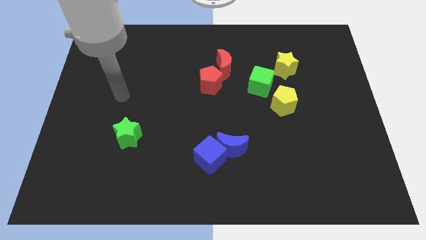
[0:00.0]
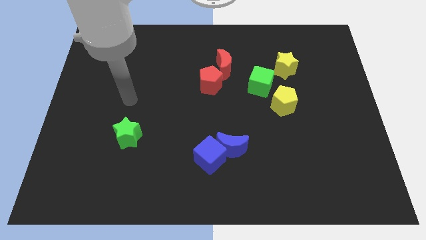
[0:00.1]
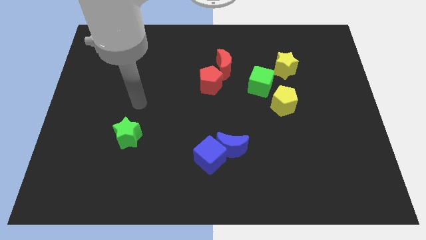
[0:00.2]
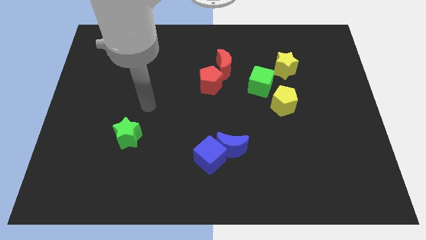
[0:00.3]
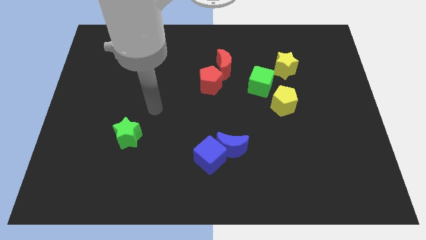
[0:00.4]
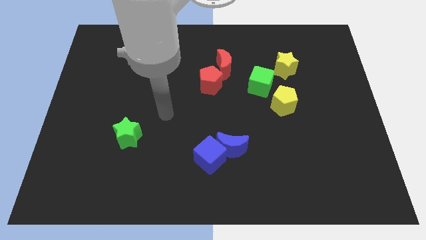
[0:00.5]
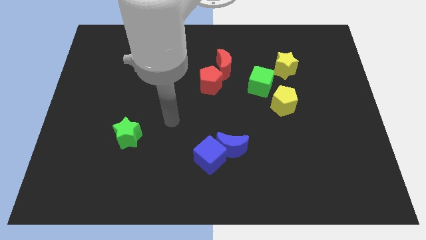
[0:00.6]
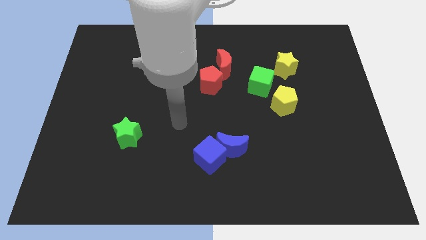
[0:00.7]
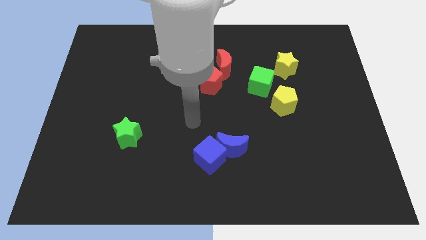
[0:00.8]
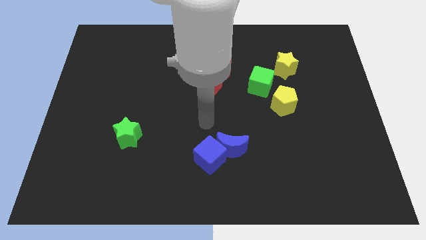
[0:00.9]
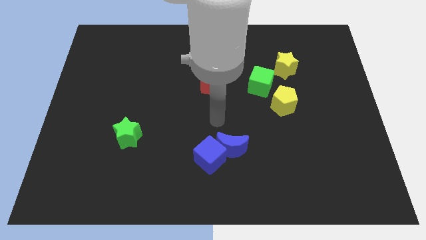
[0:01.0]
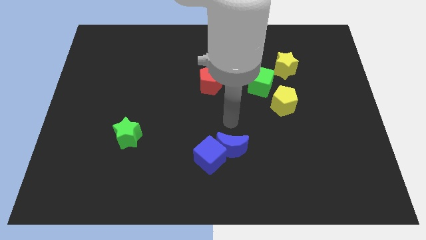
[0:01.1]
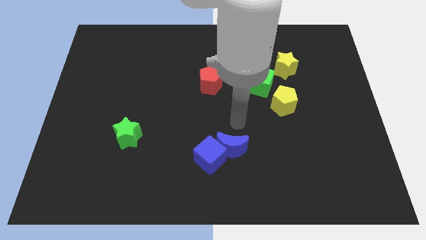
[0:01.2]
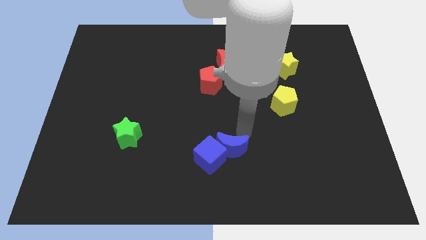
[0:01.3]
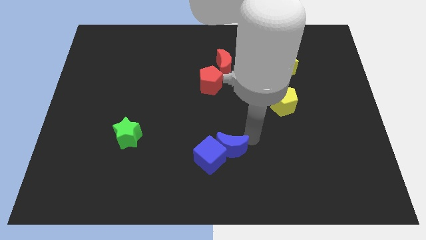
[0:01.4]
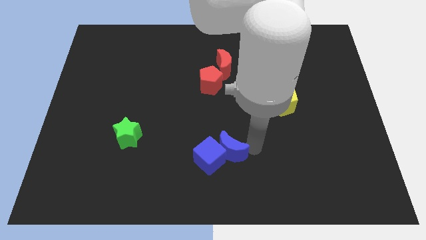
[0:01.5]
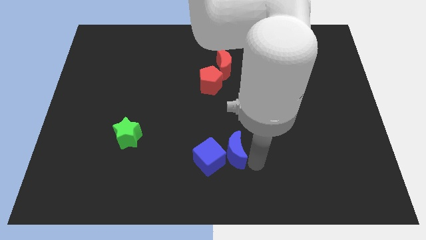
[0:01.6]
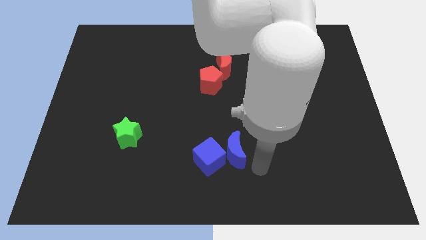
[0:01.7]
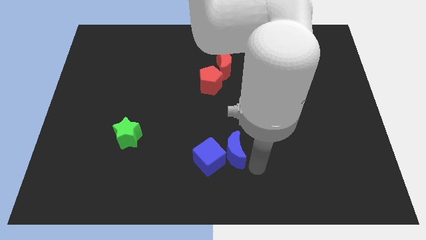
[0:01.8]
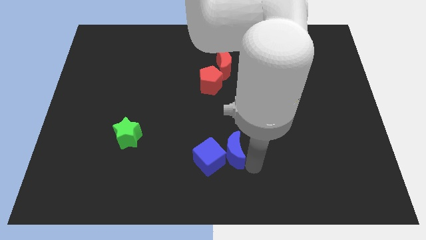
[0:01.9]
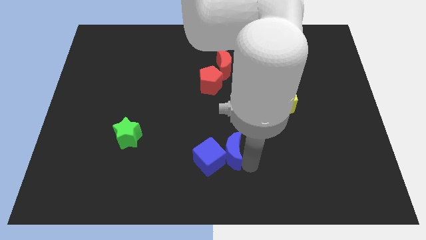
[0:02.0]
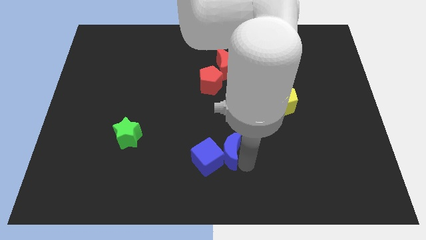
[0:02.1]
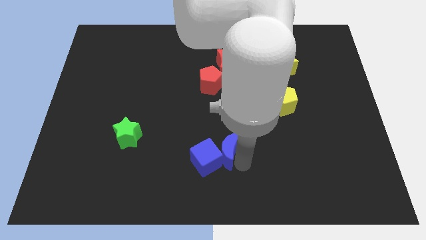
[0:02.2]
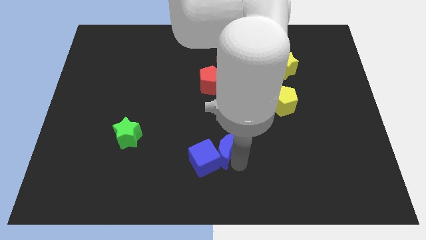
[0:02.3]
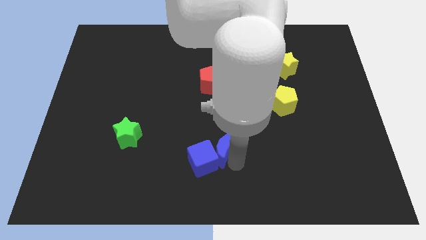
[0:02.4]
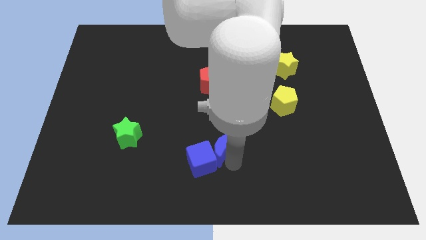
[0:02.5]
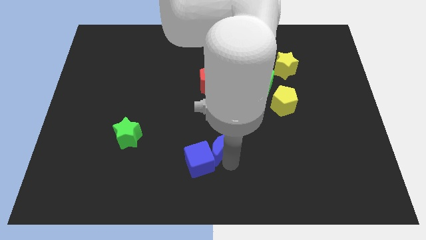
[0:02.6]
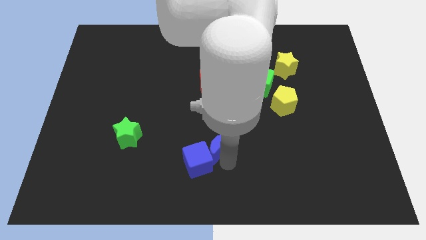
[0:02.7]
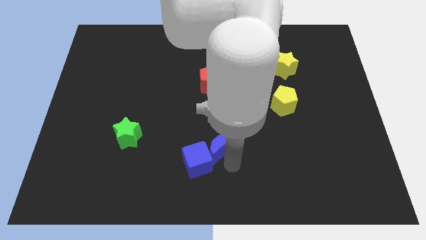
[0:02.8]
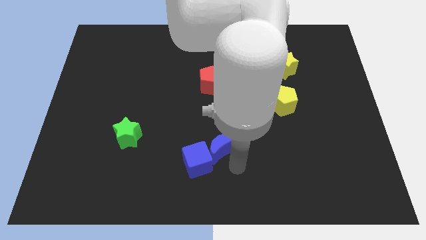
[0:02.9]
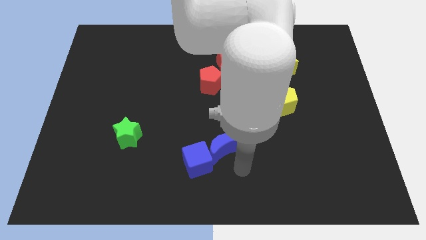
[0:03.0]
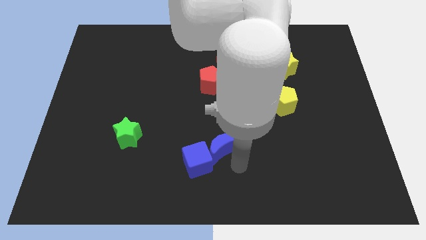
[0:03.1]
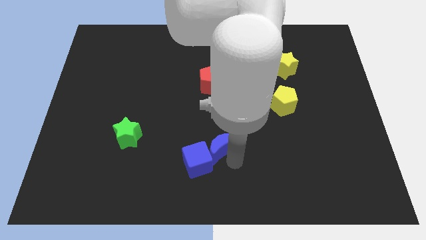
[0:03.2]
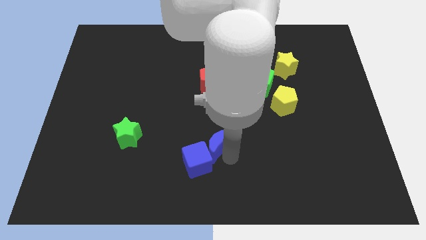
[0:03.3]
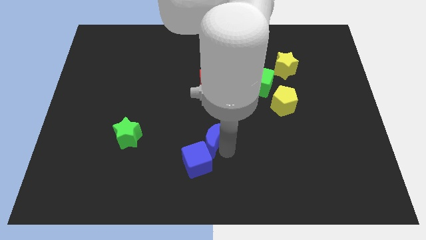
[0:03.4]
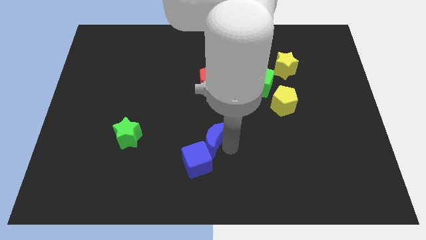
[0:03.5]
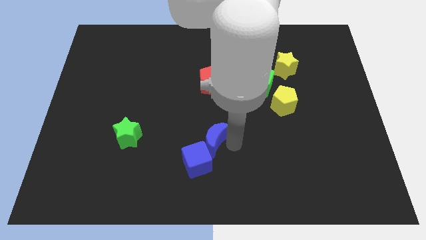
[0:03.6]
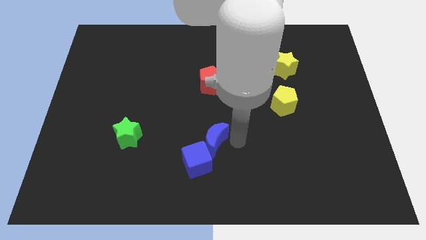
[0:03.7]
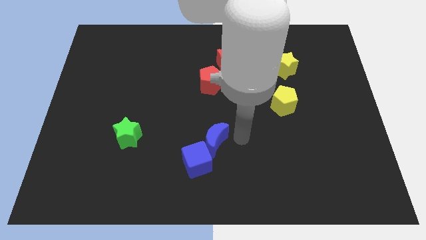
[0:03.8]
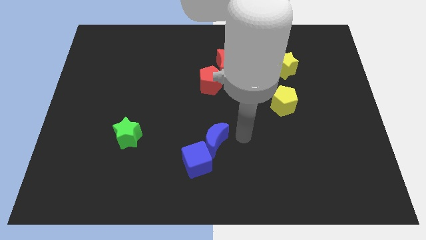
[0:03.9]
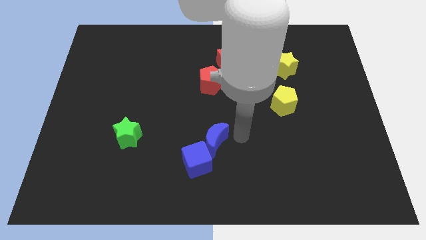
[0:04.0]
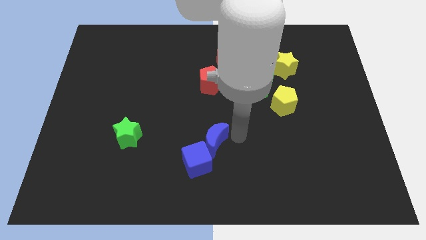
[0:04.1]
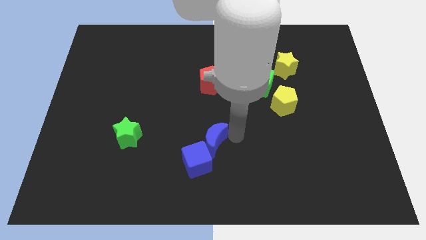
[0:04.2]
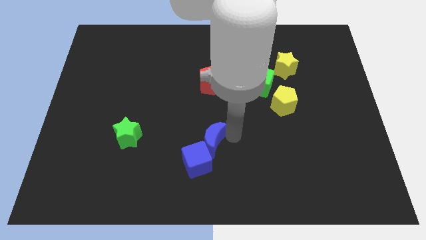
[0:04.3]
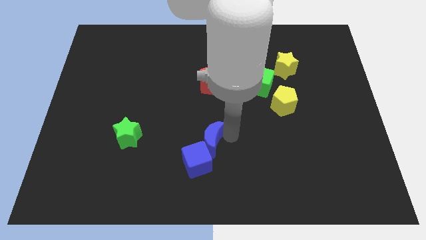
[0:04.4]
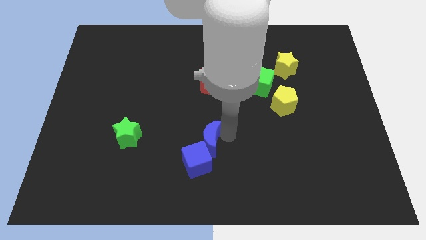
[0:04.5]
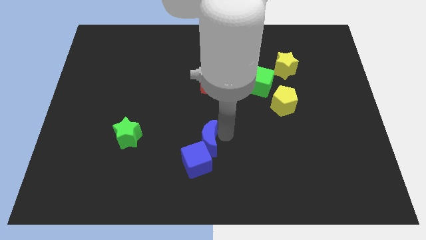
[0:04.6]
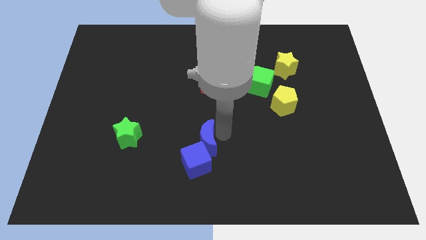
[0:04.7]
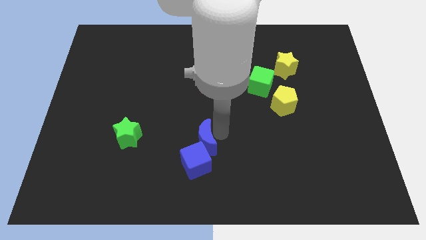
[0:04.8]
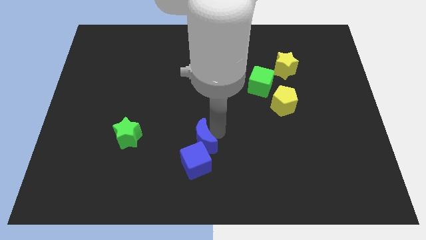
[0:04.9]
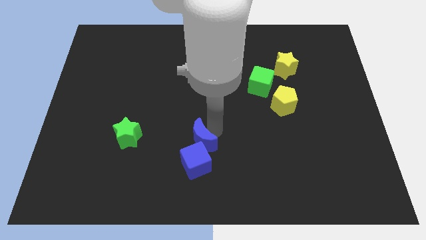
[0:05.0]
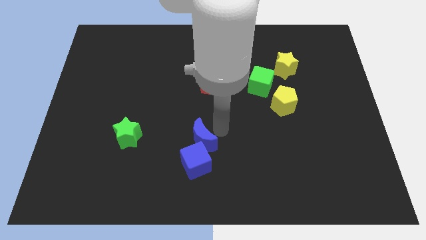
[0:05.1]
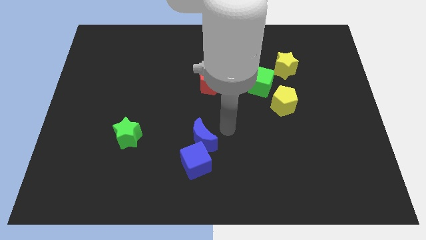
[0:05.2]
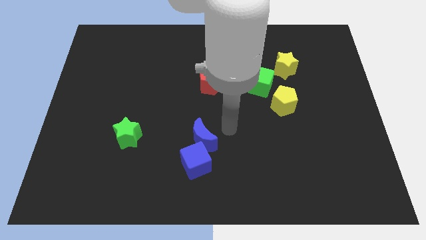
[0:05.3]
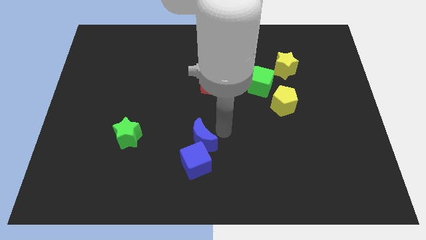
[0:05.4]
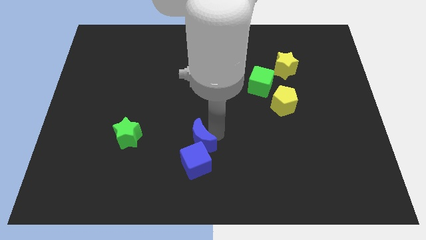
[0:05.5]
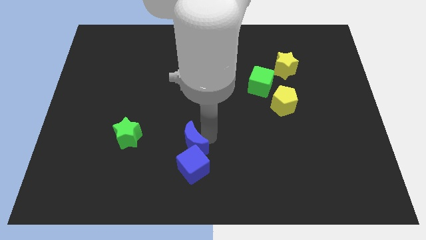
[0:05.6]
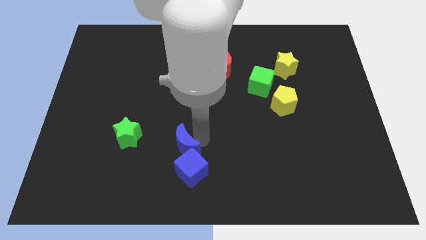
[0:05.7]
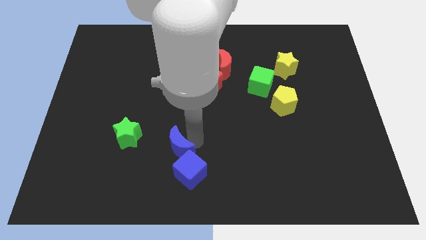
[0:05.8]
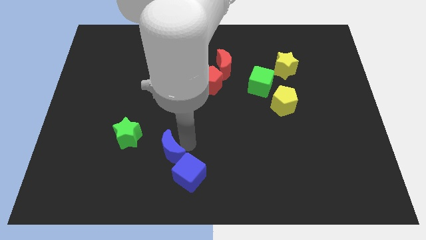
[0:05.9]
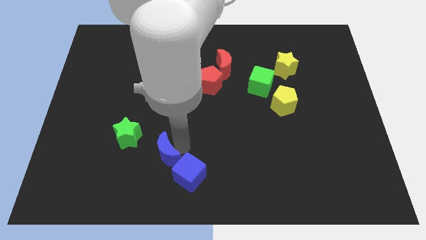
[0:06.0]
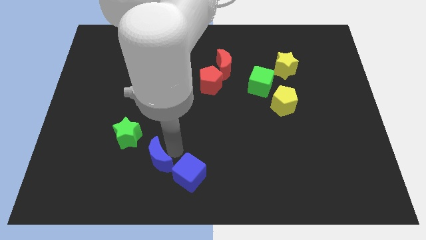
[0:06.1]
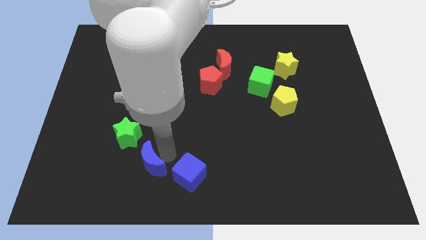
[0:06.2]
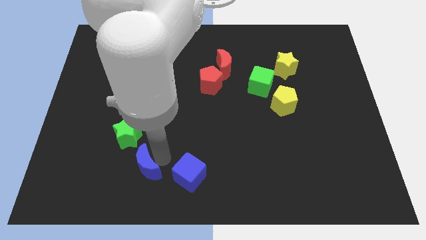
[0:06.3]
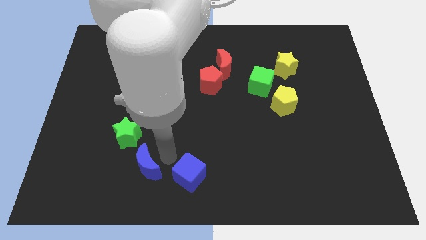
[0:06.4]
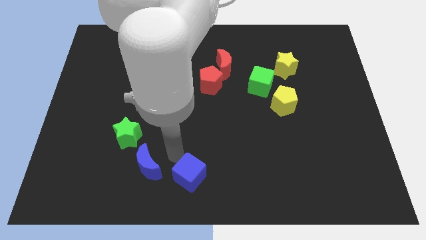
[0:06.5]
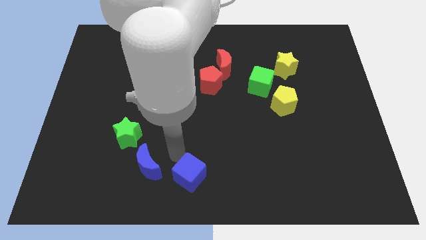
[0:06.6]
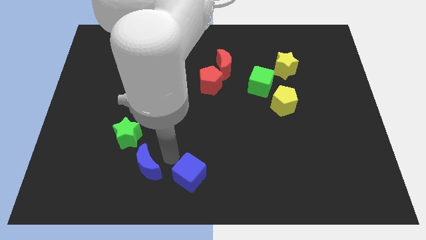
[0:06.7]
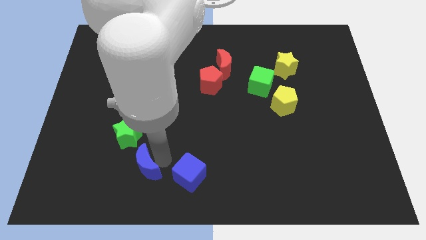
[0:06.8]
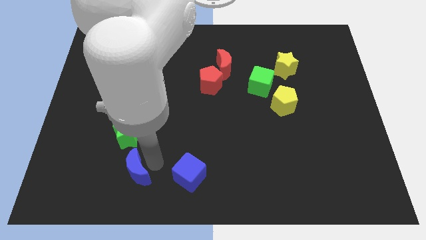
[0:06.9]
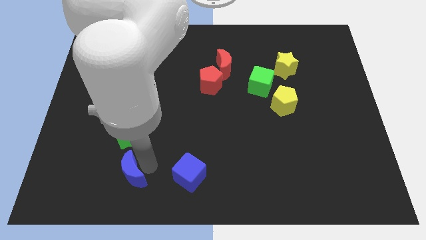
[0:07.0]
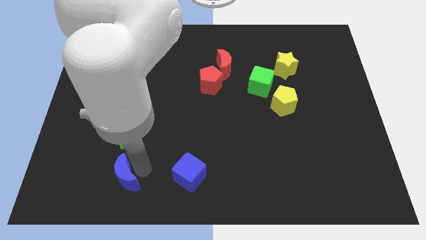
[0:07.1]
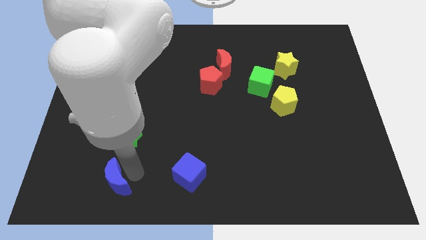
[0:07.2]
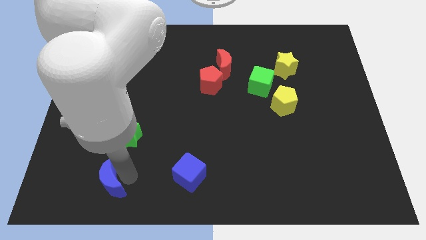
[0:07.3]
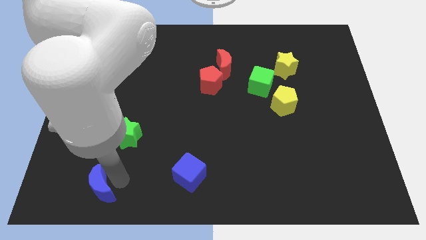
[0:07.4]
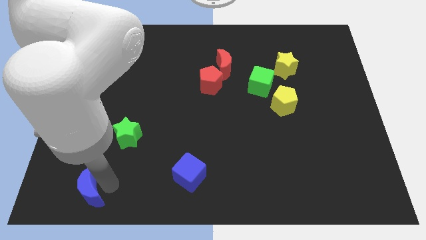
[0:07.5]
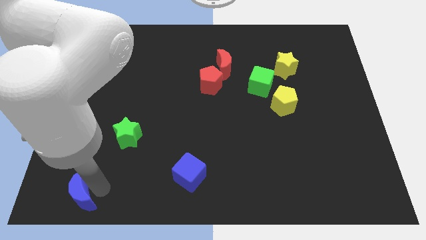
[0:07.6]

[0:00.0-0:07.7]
put the blue moon to the bottom left

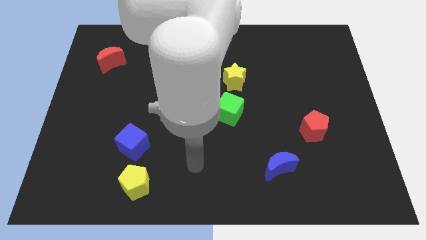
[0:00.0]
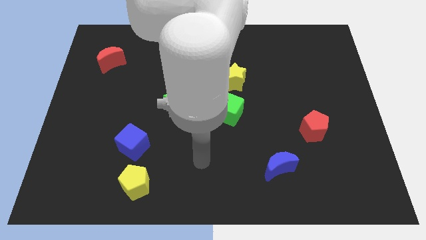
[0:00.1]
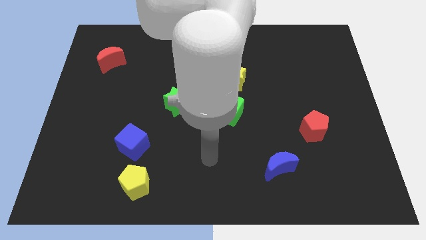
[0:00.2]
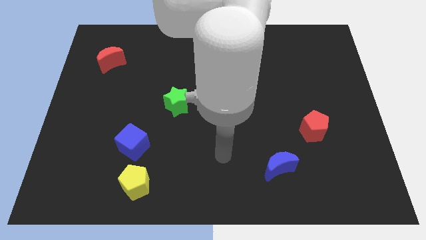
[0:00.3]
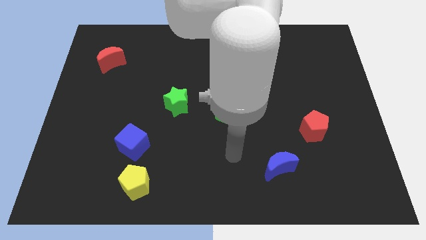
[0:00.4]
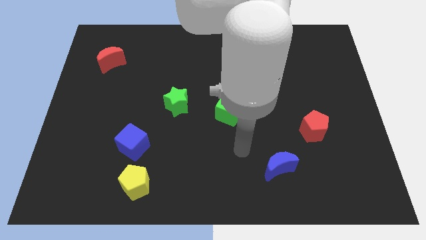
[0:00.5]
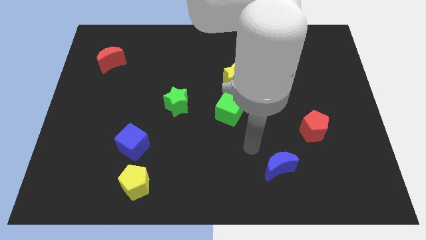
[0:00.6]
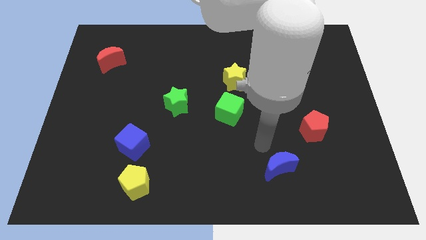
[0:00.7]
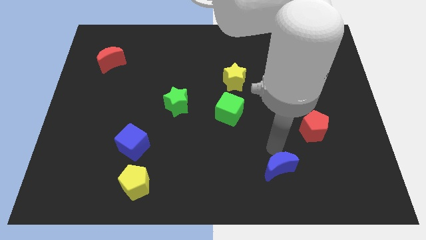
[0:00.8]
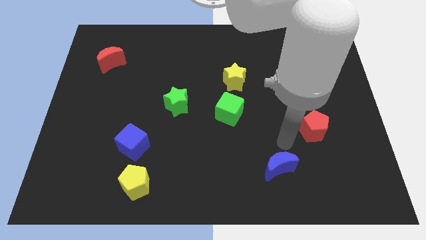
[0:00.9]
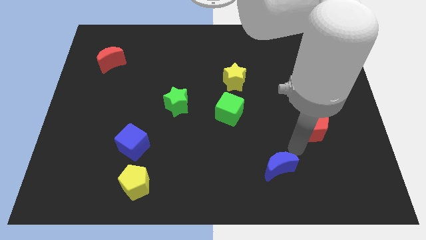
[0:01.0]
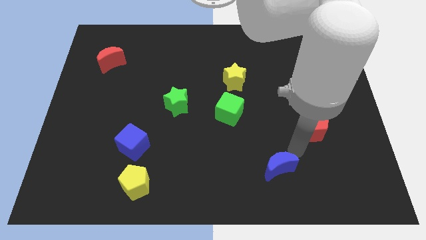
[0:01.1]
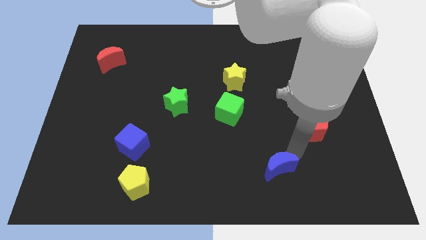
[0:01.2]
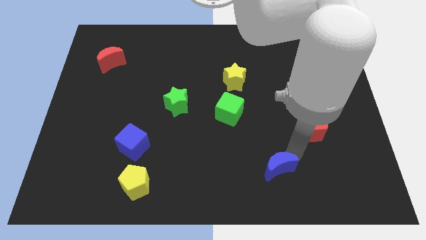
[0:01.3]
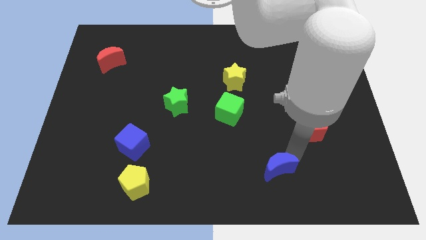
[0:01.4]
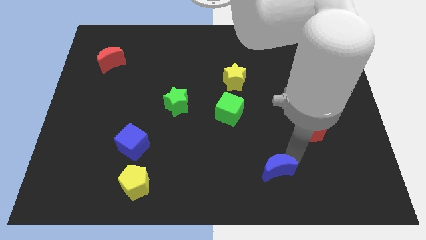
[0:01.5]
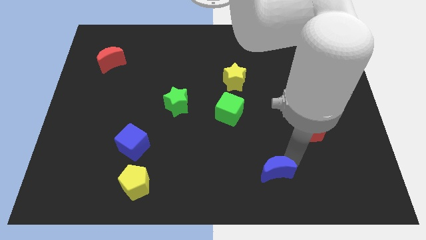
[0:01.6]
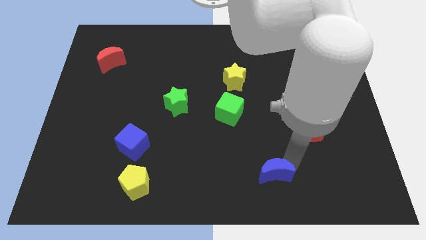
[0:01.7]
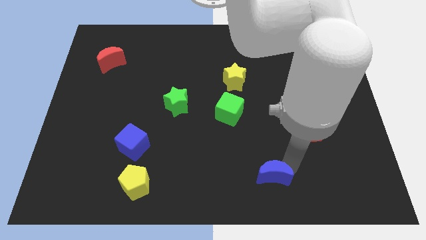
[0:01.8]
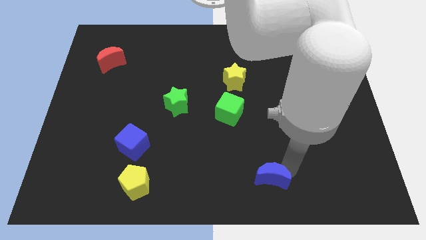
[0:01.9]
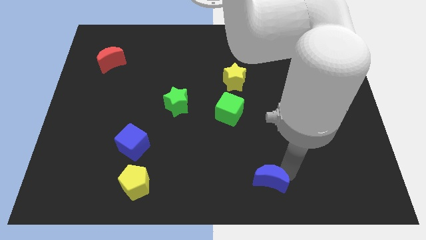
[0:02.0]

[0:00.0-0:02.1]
put the blue moon to the bottom
